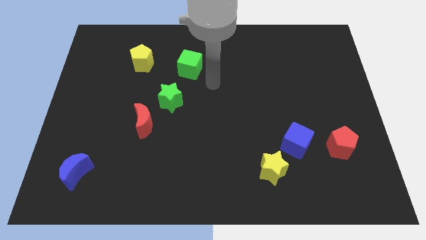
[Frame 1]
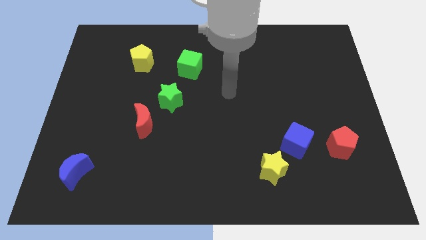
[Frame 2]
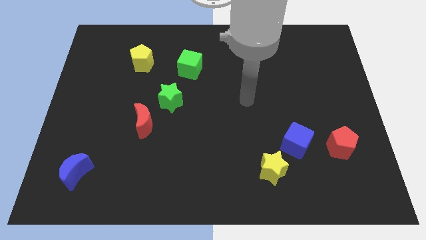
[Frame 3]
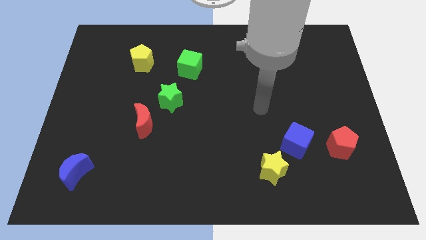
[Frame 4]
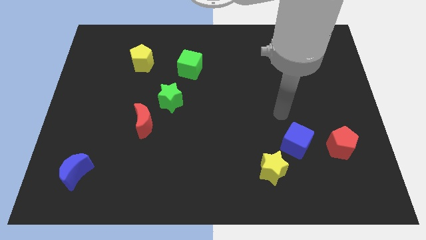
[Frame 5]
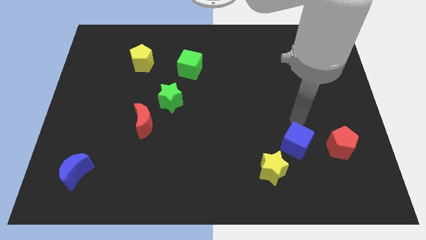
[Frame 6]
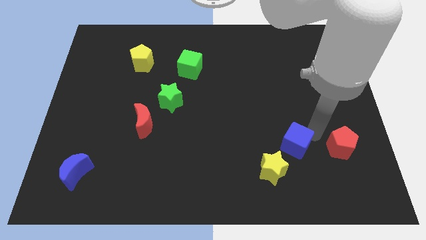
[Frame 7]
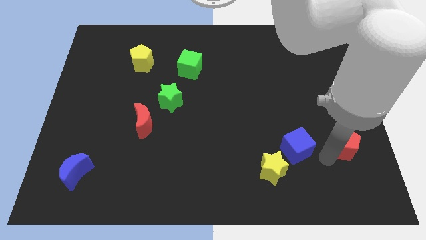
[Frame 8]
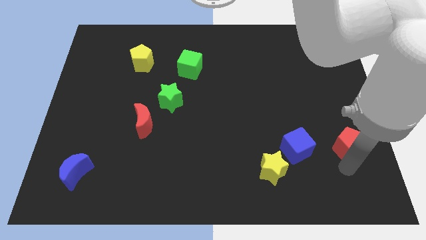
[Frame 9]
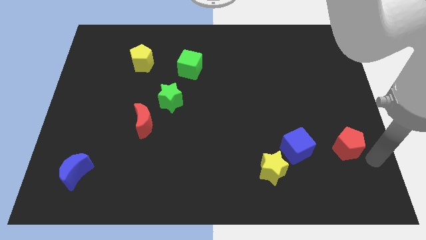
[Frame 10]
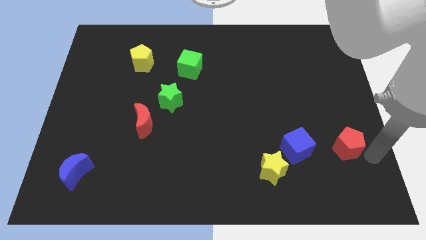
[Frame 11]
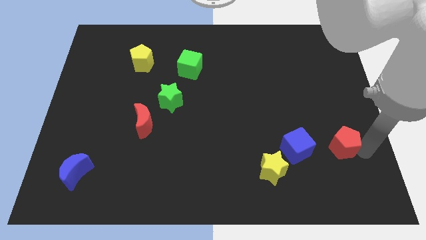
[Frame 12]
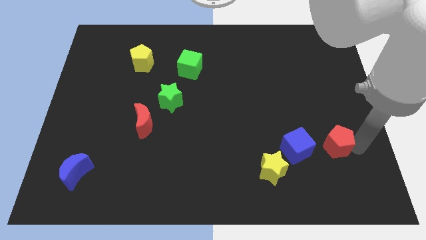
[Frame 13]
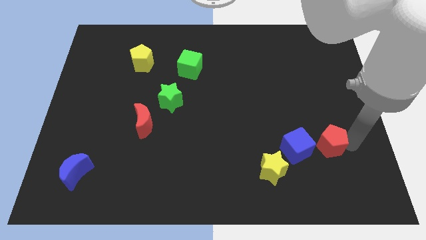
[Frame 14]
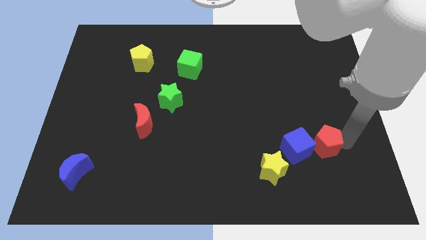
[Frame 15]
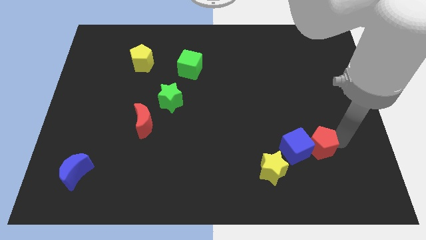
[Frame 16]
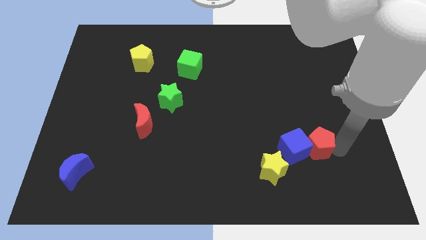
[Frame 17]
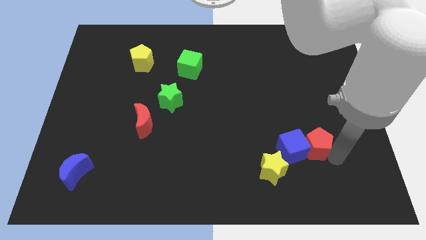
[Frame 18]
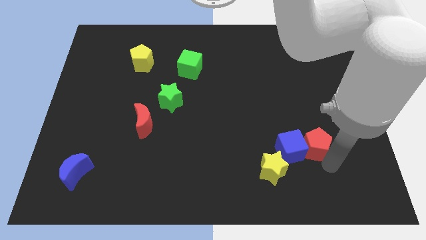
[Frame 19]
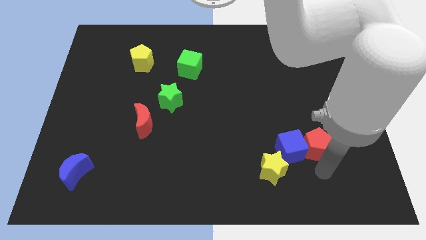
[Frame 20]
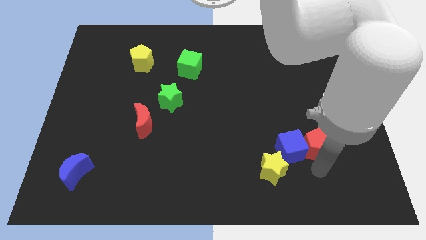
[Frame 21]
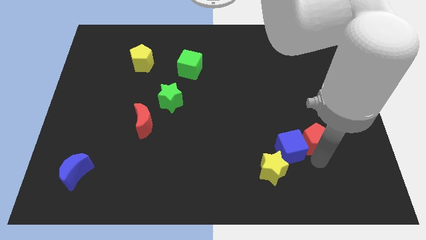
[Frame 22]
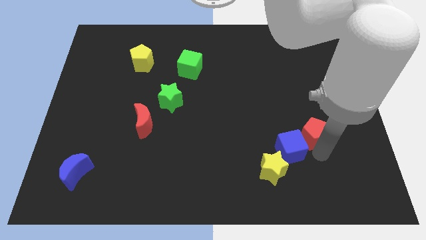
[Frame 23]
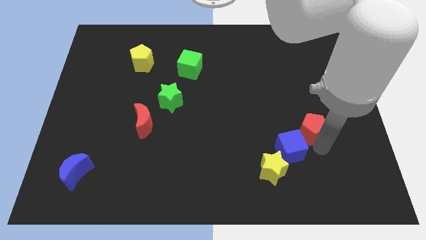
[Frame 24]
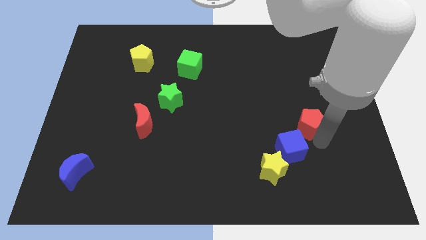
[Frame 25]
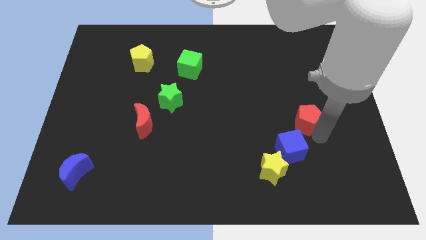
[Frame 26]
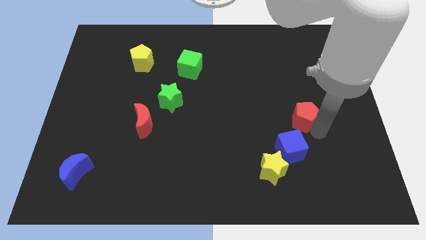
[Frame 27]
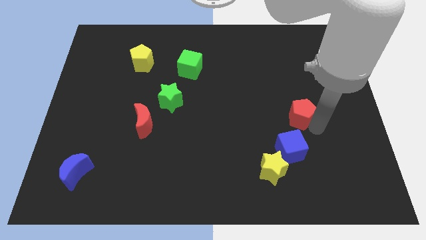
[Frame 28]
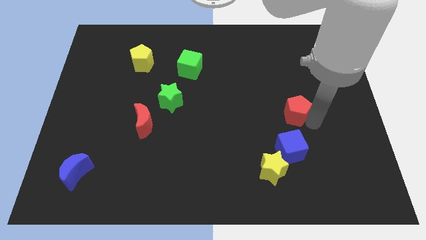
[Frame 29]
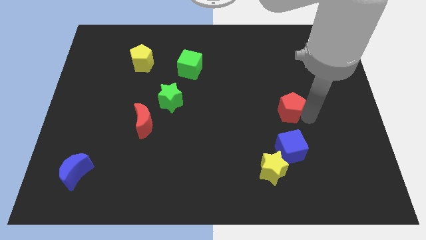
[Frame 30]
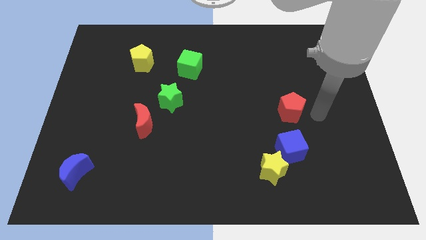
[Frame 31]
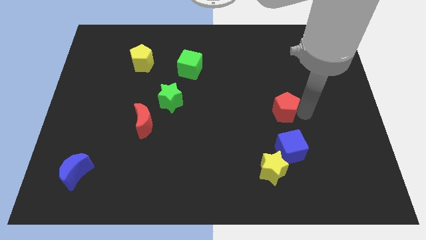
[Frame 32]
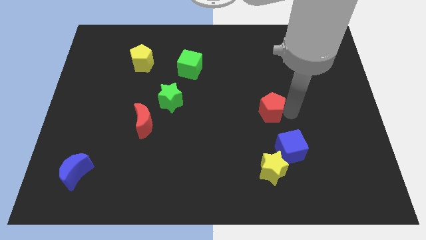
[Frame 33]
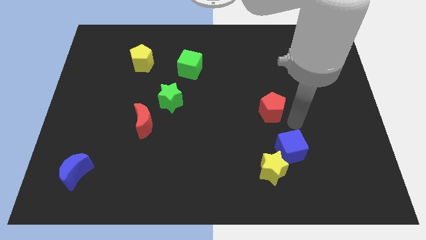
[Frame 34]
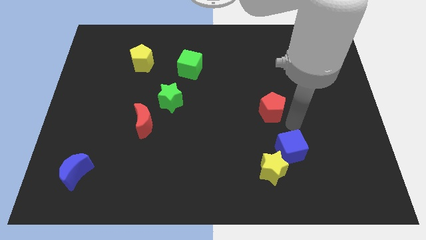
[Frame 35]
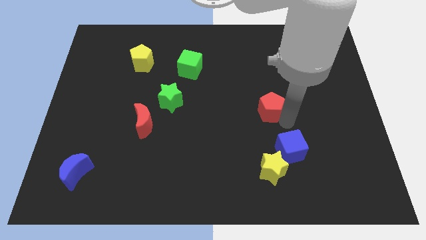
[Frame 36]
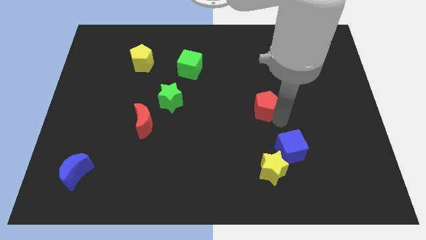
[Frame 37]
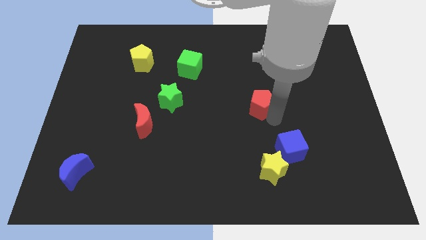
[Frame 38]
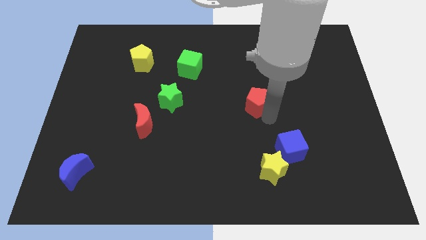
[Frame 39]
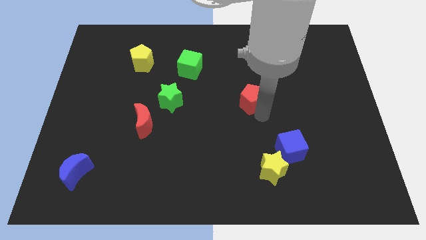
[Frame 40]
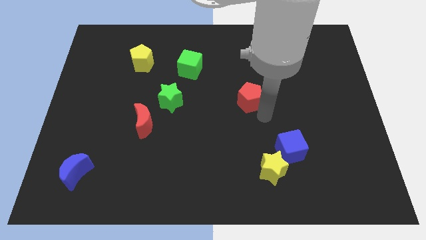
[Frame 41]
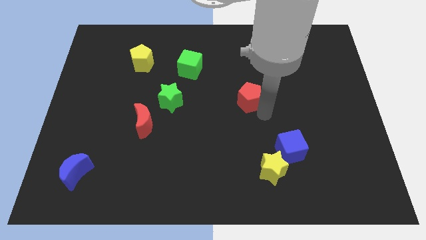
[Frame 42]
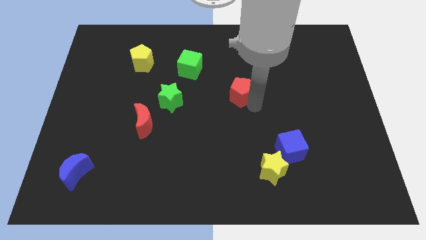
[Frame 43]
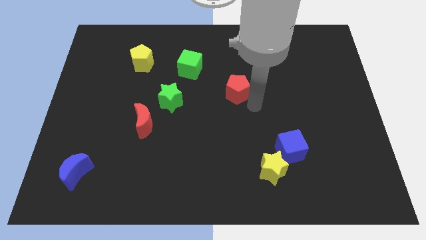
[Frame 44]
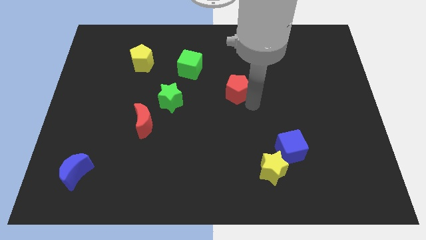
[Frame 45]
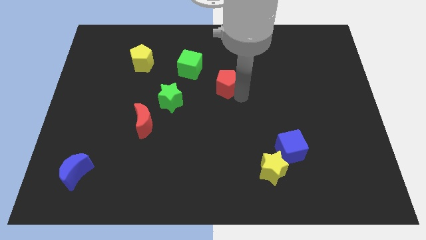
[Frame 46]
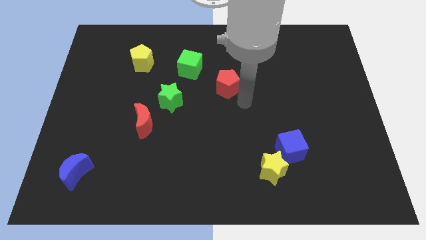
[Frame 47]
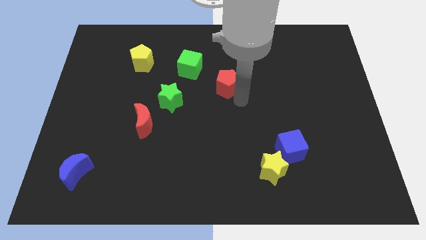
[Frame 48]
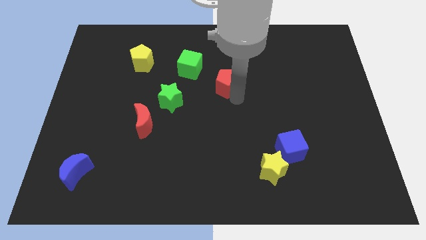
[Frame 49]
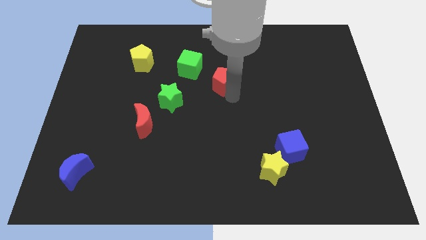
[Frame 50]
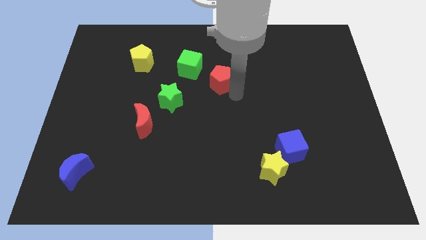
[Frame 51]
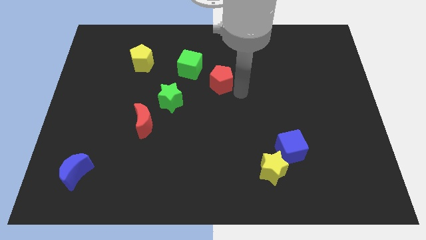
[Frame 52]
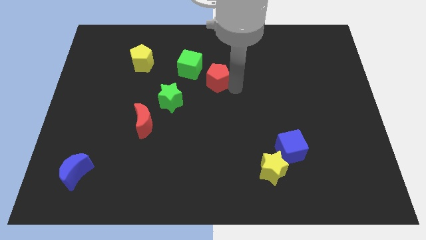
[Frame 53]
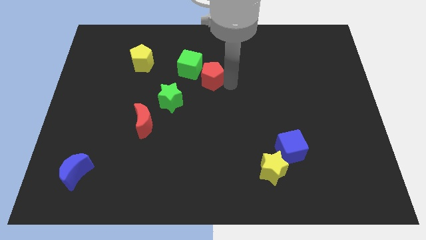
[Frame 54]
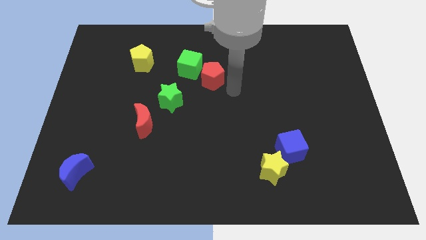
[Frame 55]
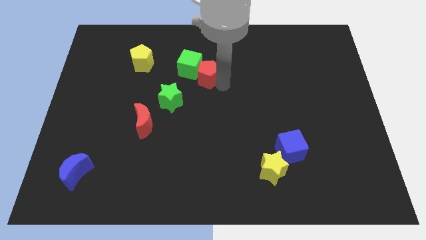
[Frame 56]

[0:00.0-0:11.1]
put the red pentagon towards the green cube

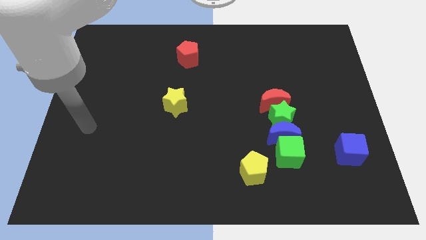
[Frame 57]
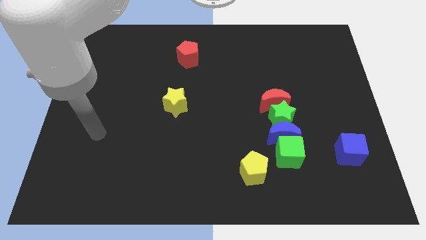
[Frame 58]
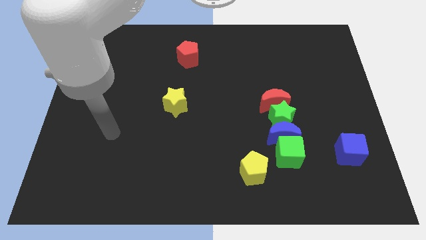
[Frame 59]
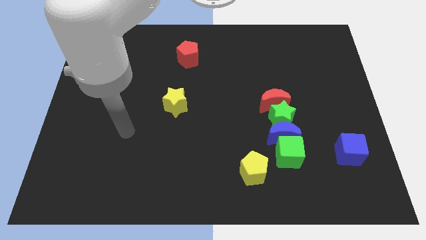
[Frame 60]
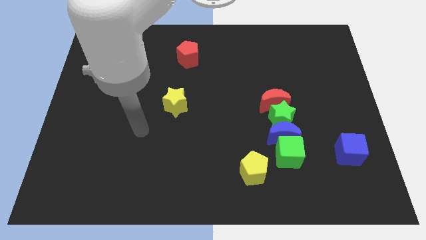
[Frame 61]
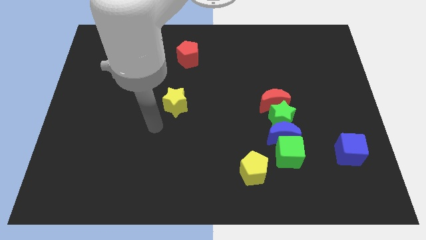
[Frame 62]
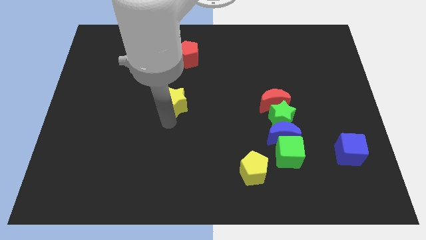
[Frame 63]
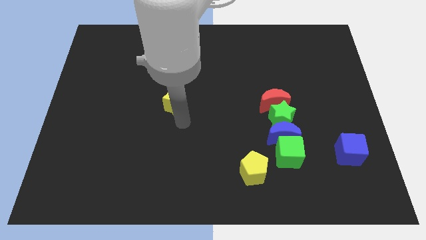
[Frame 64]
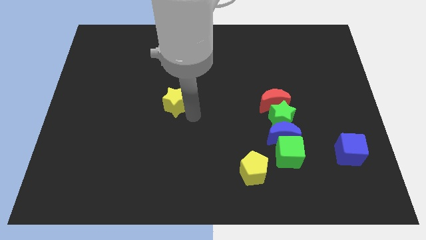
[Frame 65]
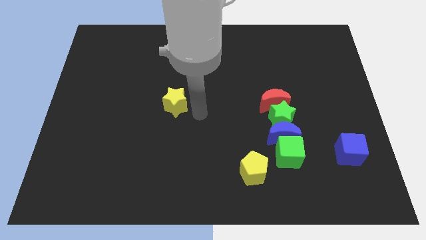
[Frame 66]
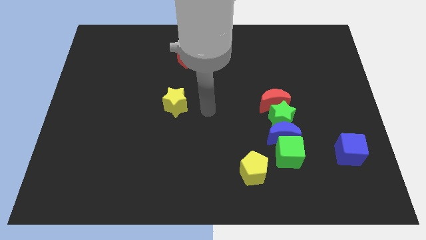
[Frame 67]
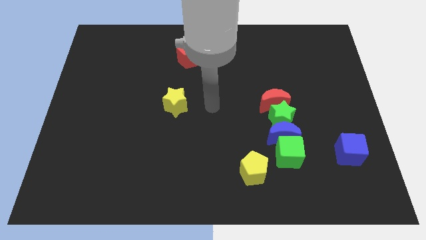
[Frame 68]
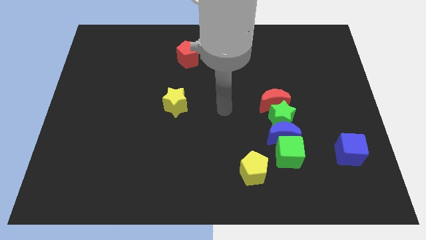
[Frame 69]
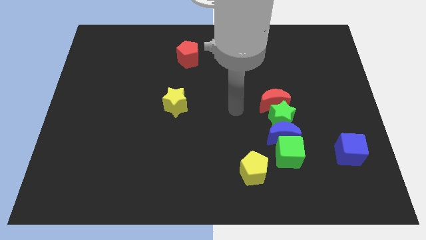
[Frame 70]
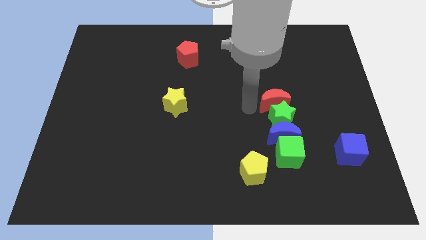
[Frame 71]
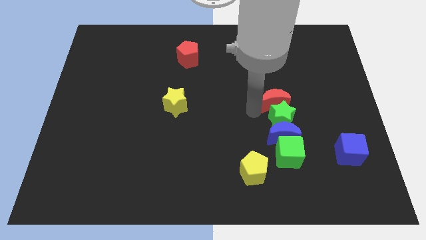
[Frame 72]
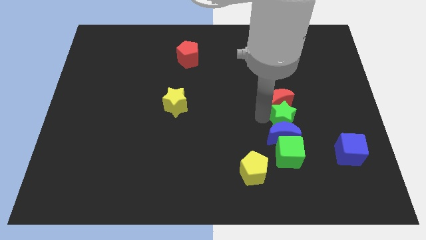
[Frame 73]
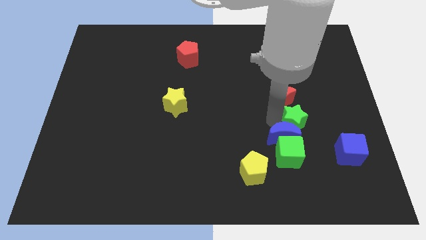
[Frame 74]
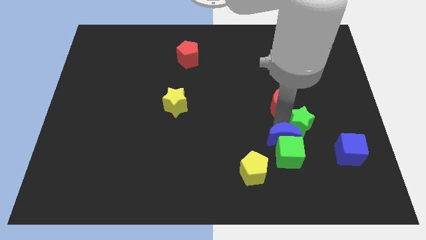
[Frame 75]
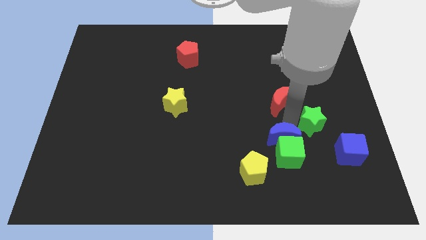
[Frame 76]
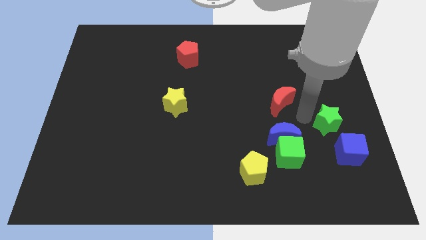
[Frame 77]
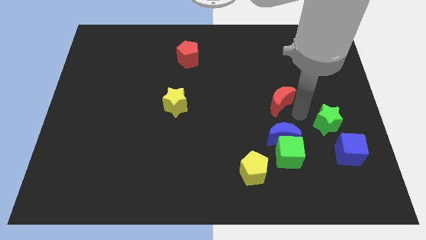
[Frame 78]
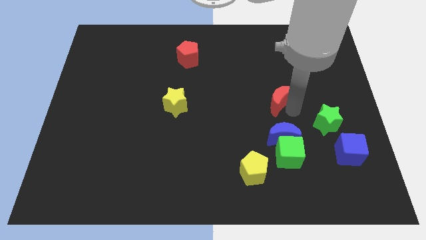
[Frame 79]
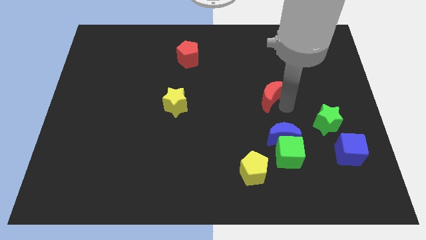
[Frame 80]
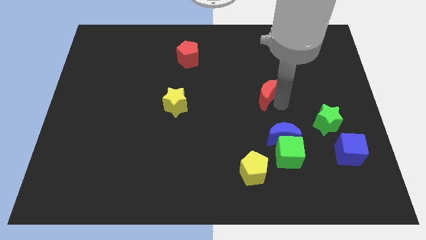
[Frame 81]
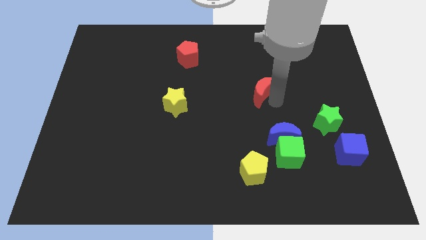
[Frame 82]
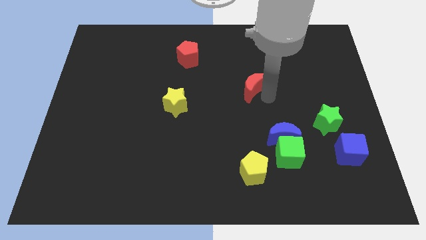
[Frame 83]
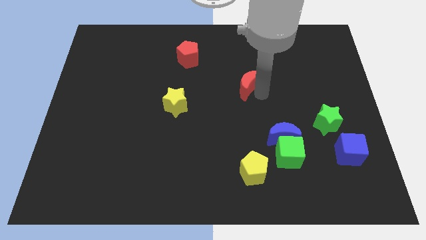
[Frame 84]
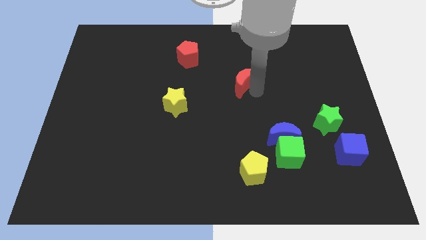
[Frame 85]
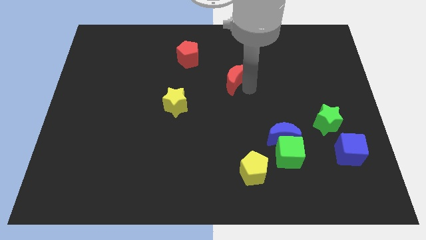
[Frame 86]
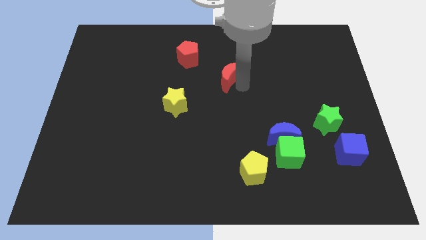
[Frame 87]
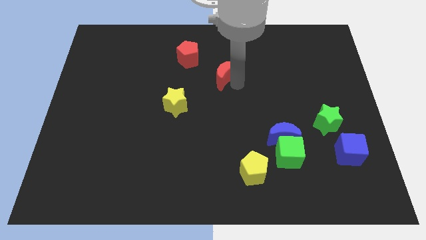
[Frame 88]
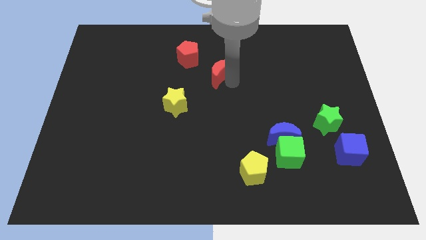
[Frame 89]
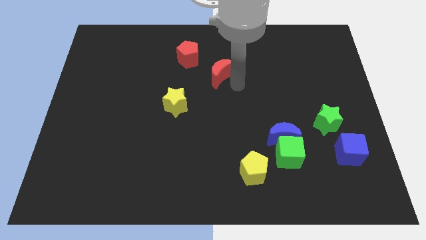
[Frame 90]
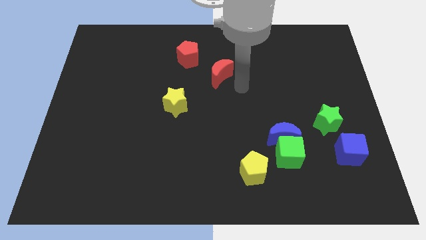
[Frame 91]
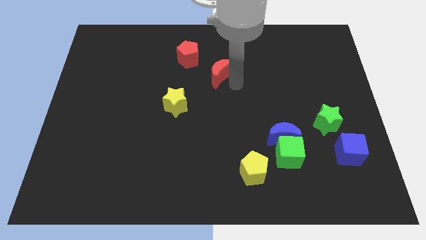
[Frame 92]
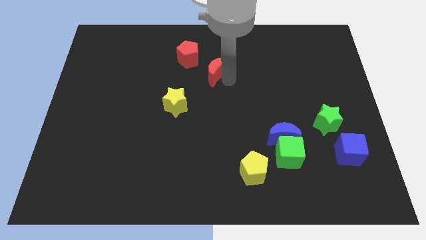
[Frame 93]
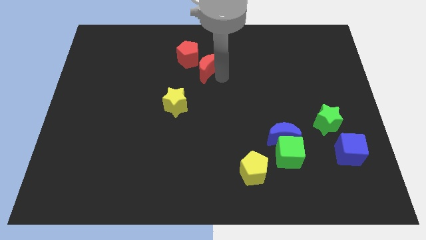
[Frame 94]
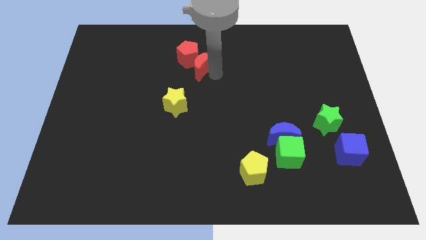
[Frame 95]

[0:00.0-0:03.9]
slide the red moon close to the red pentagon
